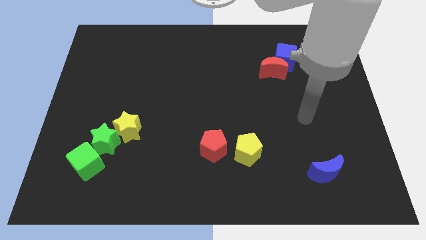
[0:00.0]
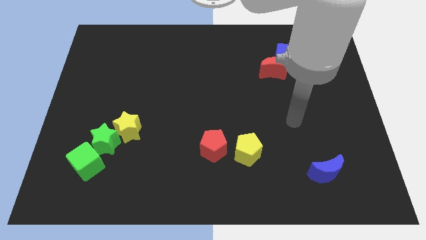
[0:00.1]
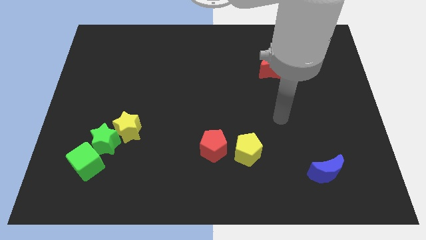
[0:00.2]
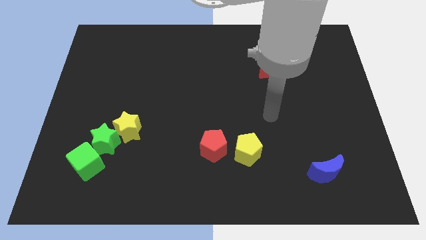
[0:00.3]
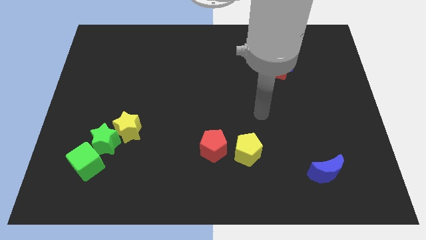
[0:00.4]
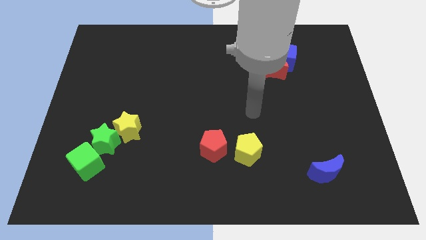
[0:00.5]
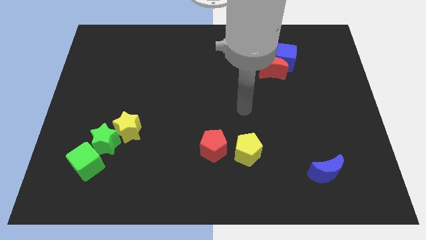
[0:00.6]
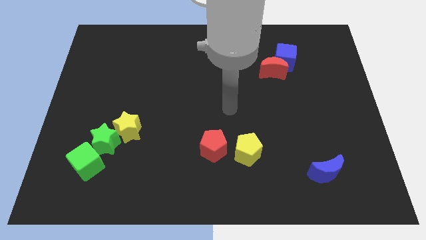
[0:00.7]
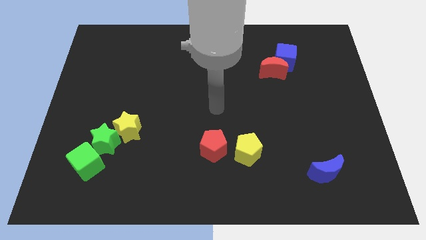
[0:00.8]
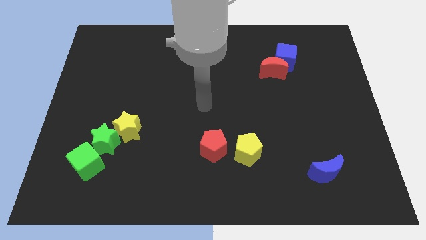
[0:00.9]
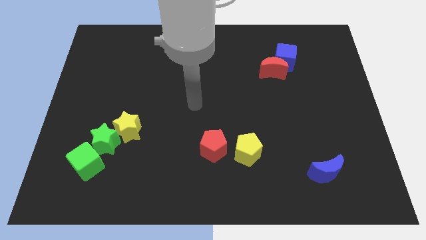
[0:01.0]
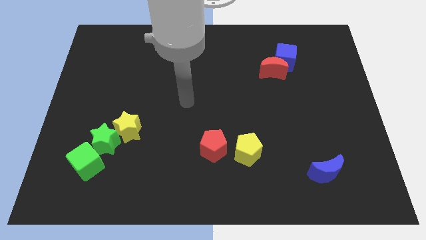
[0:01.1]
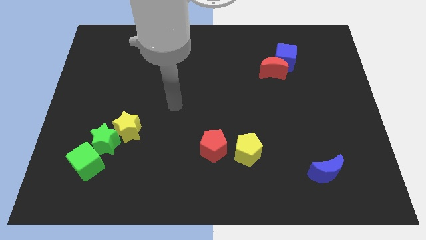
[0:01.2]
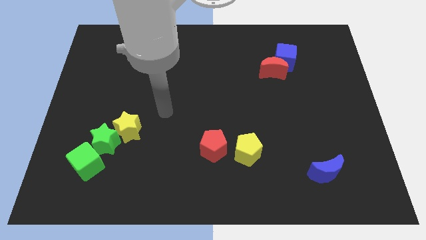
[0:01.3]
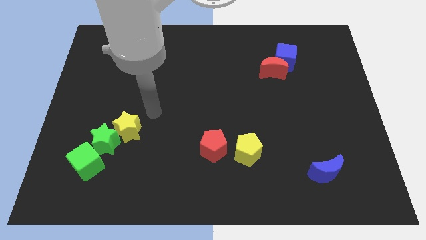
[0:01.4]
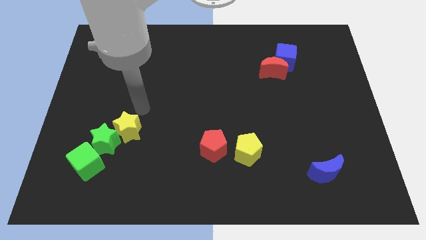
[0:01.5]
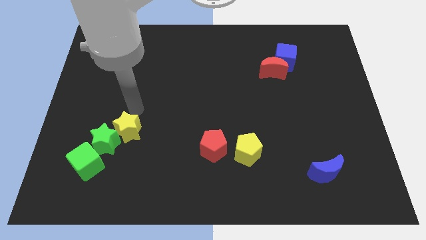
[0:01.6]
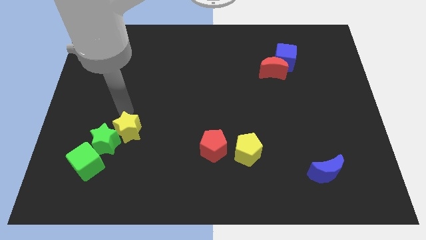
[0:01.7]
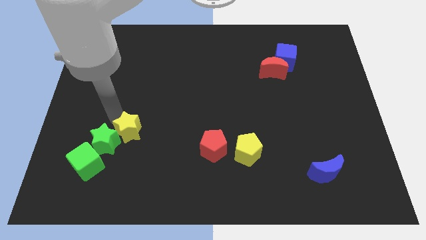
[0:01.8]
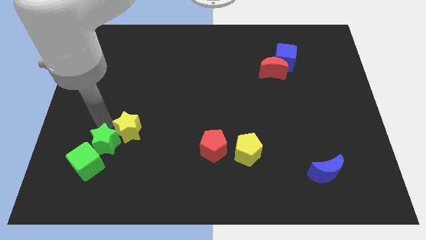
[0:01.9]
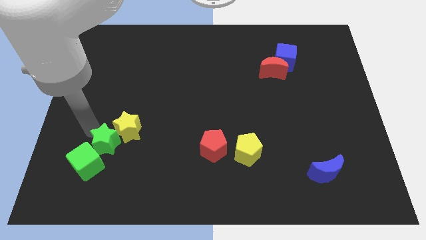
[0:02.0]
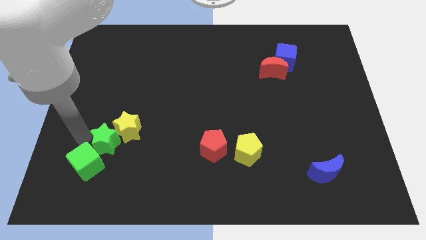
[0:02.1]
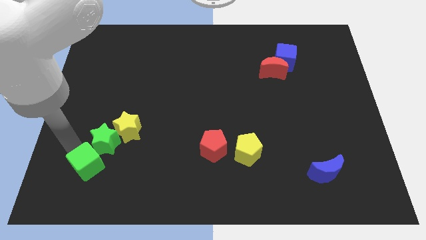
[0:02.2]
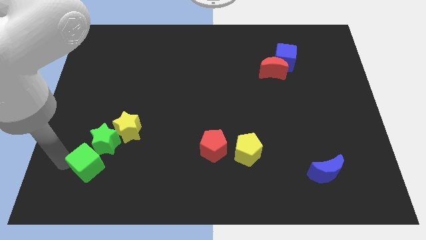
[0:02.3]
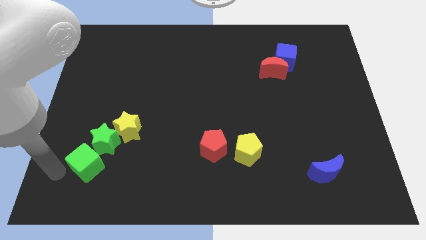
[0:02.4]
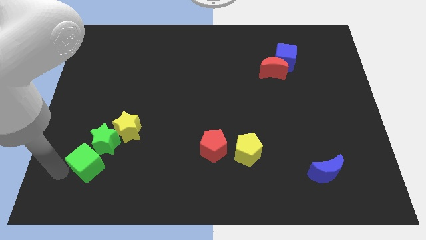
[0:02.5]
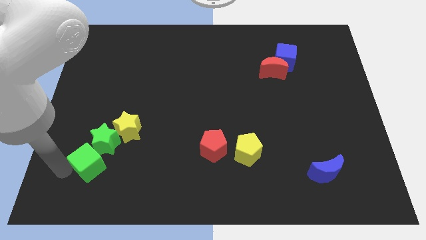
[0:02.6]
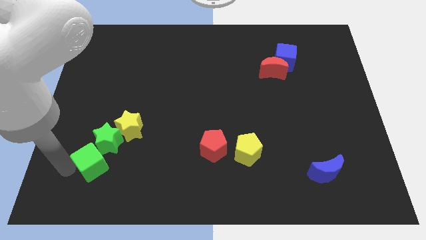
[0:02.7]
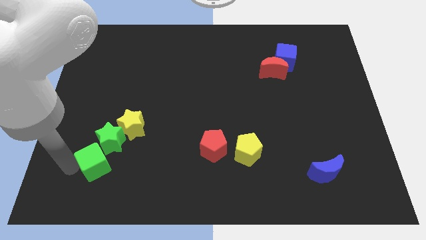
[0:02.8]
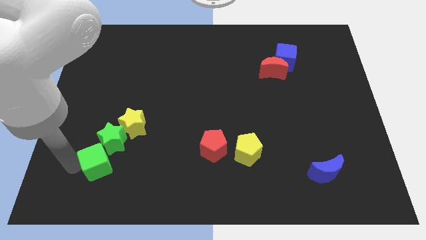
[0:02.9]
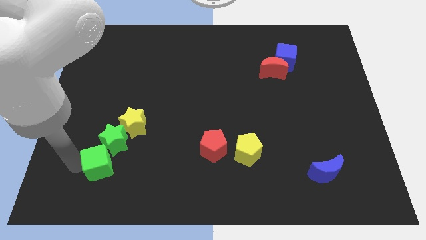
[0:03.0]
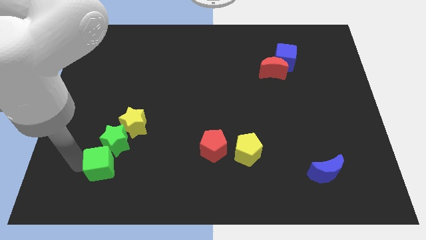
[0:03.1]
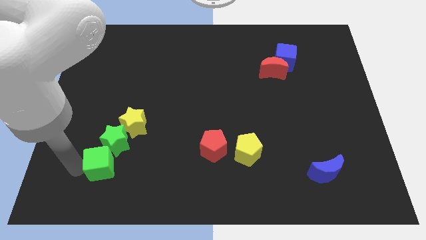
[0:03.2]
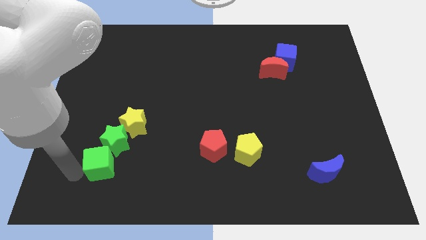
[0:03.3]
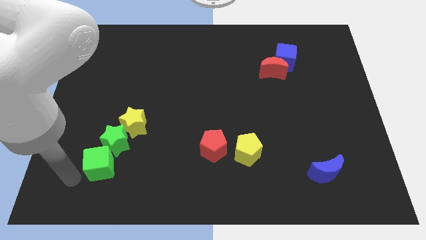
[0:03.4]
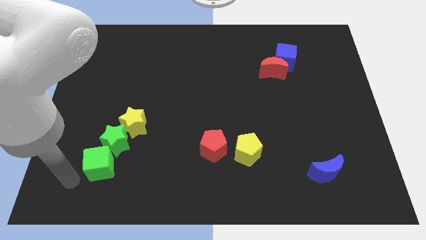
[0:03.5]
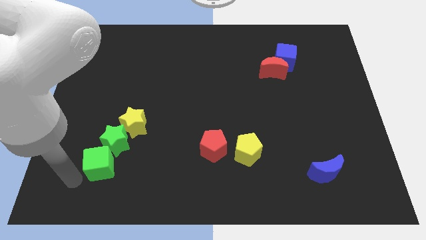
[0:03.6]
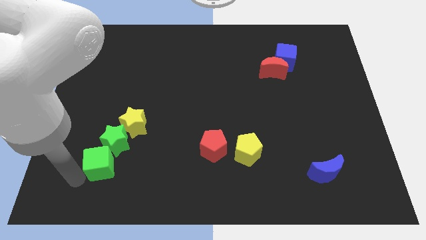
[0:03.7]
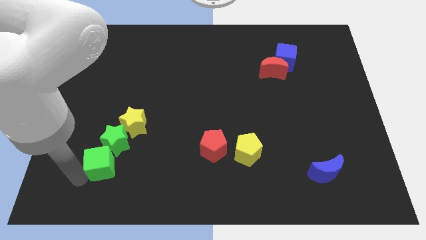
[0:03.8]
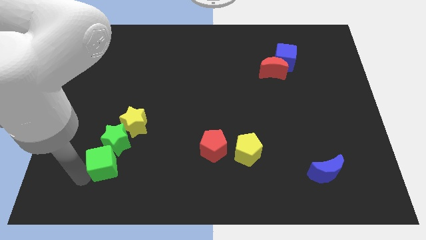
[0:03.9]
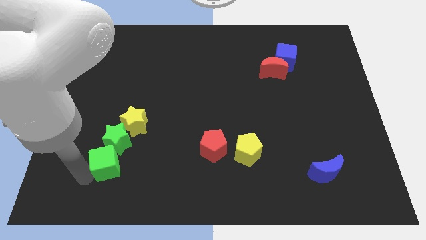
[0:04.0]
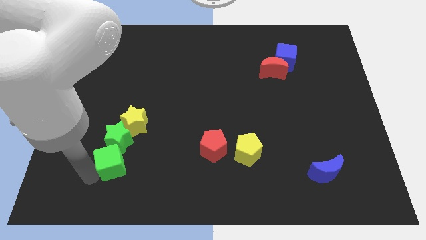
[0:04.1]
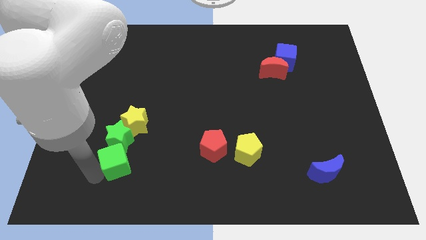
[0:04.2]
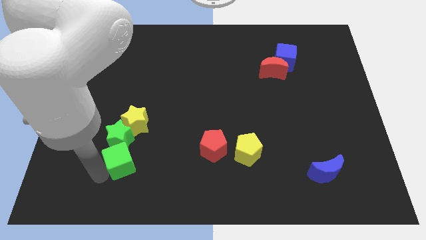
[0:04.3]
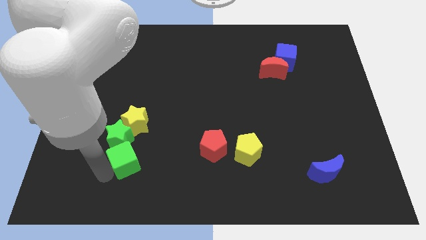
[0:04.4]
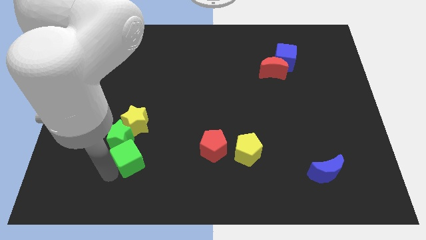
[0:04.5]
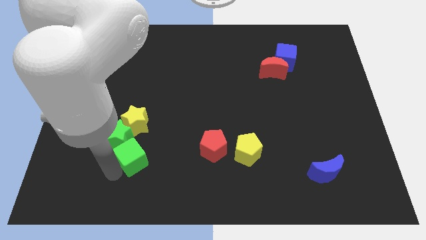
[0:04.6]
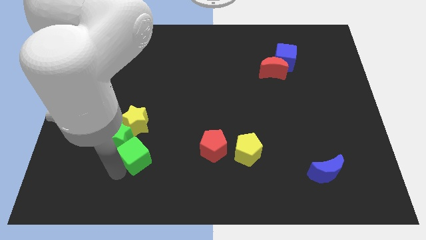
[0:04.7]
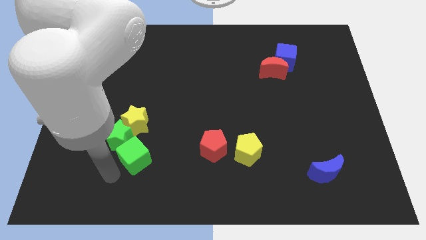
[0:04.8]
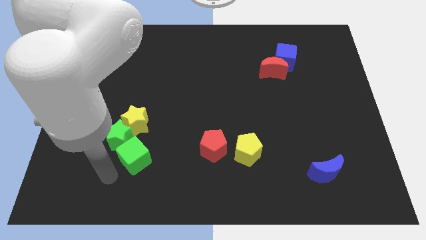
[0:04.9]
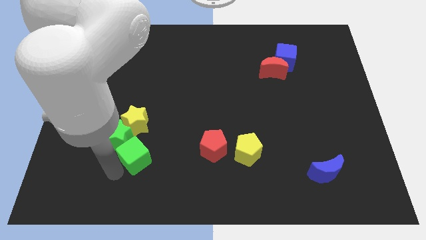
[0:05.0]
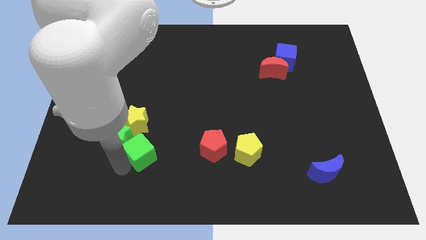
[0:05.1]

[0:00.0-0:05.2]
slide the green cube to the bottom right of the yellow star

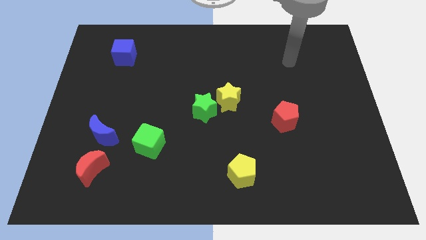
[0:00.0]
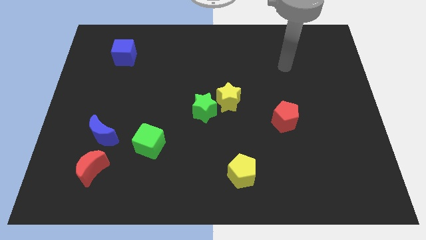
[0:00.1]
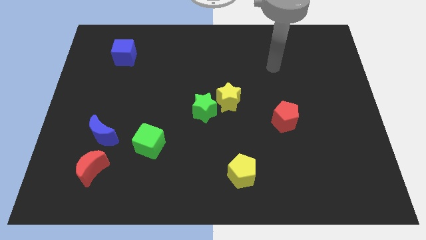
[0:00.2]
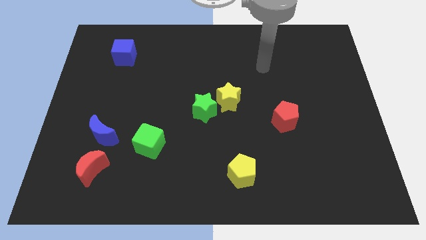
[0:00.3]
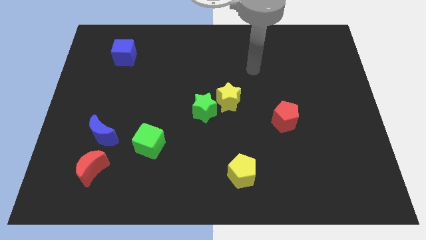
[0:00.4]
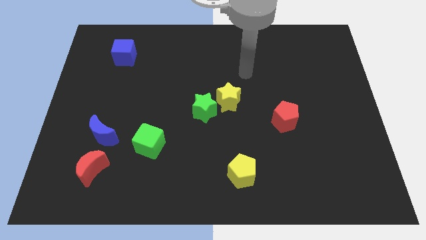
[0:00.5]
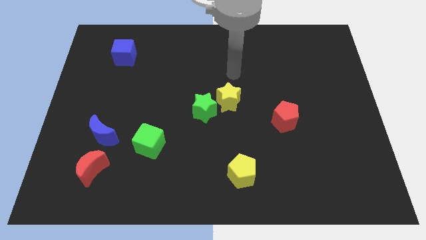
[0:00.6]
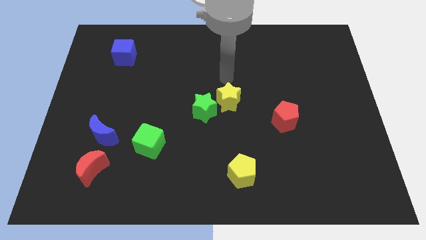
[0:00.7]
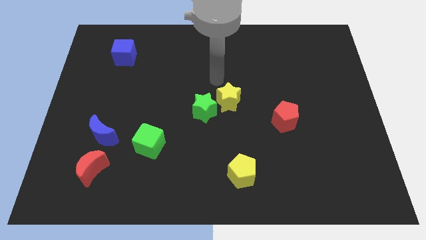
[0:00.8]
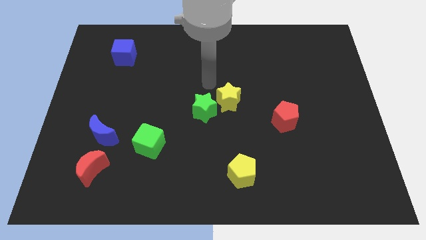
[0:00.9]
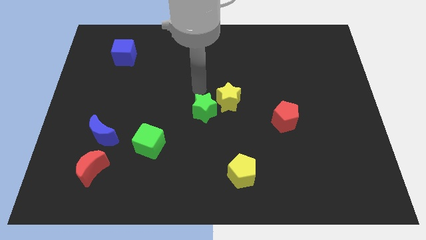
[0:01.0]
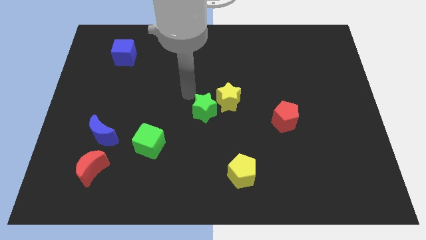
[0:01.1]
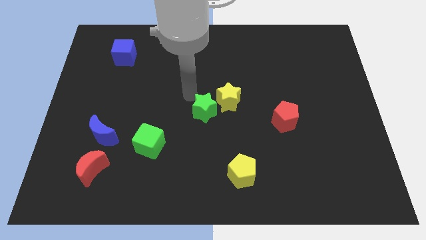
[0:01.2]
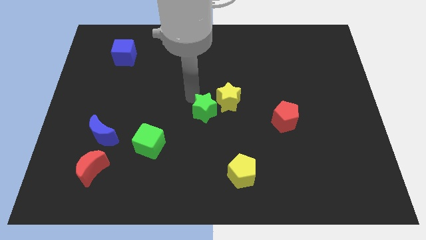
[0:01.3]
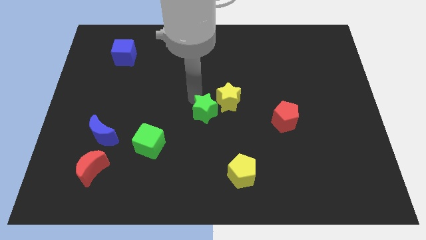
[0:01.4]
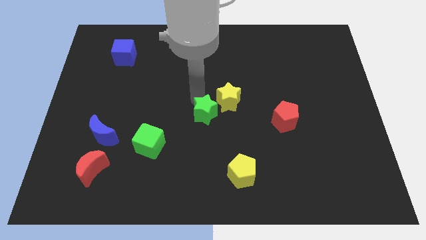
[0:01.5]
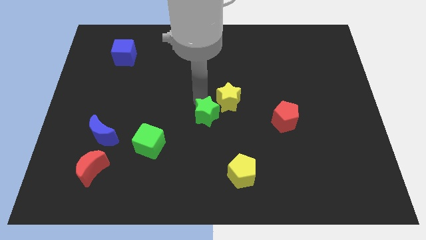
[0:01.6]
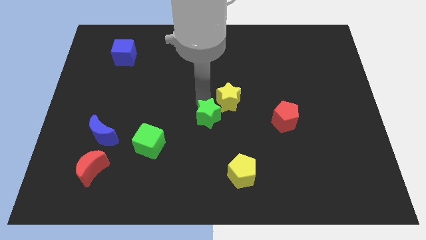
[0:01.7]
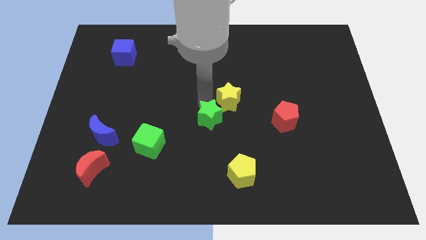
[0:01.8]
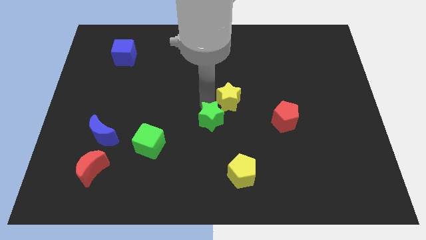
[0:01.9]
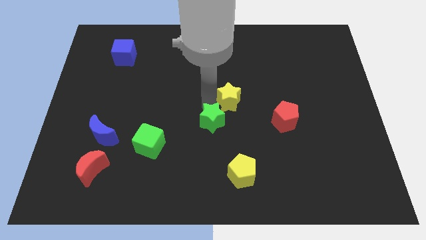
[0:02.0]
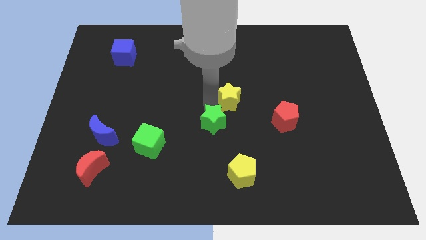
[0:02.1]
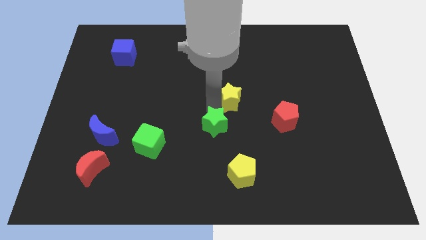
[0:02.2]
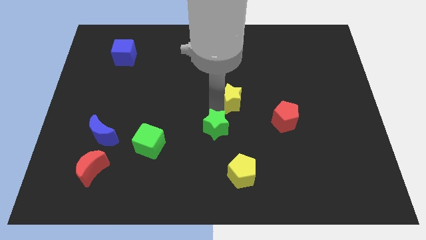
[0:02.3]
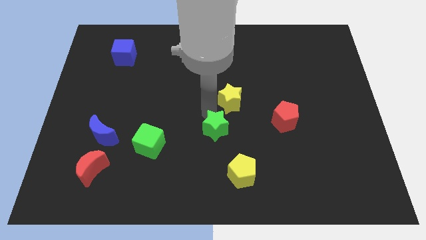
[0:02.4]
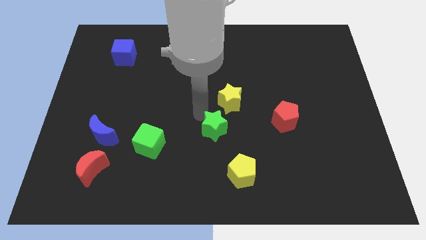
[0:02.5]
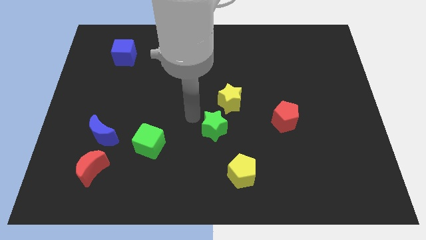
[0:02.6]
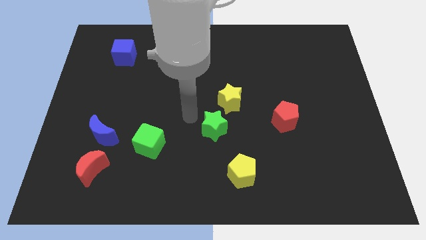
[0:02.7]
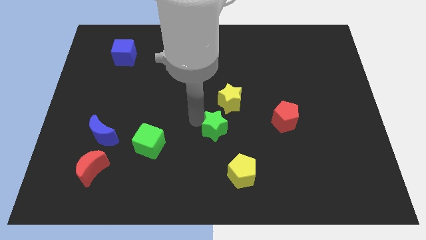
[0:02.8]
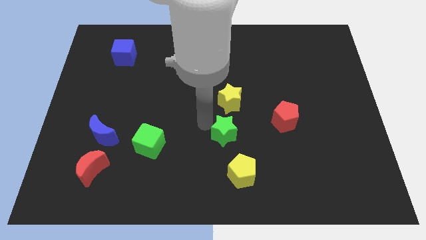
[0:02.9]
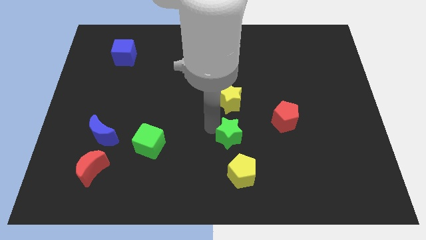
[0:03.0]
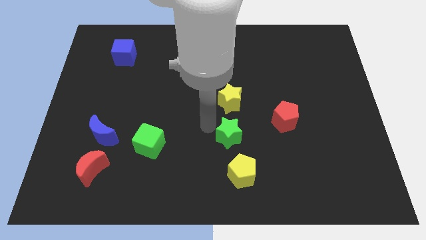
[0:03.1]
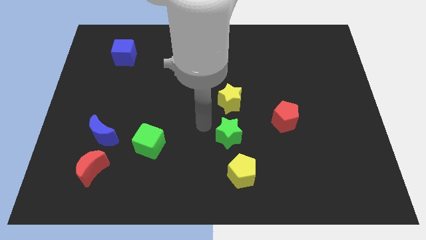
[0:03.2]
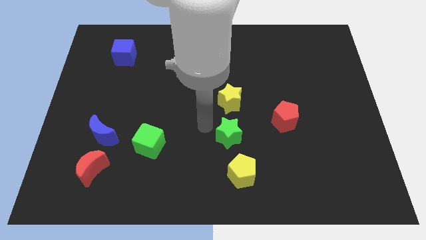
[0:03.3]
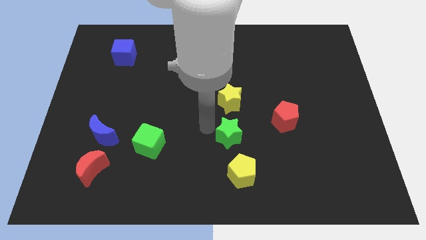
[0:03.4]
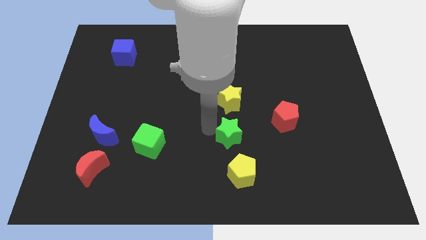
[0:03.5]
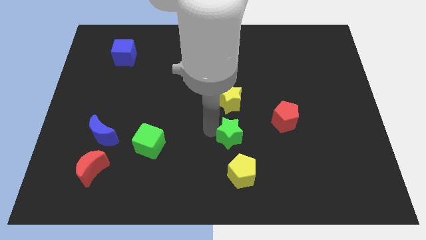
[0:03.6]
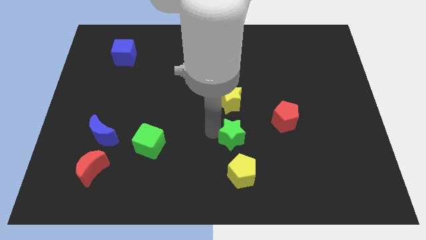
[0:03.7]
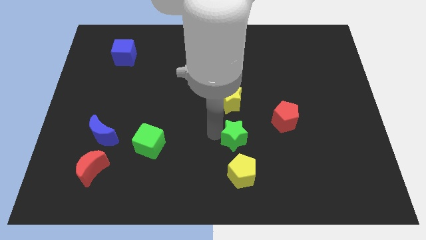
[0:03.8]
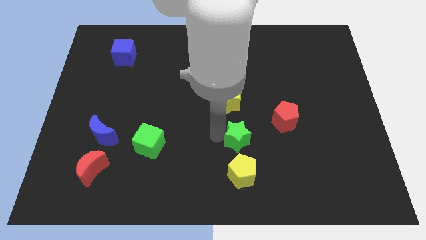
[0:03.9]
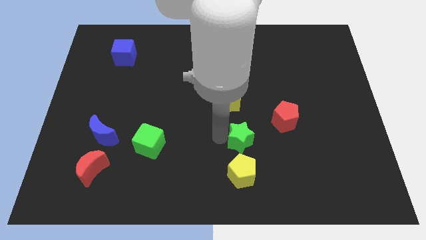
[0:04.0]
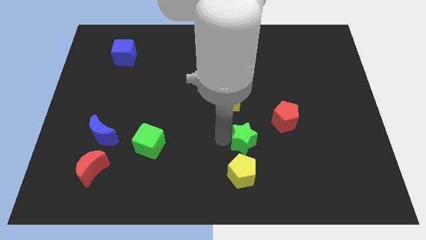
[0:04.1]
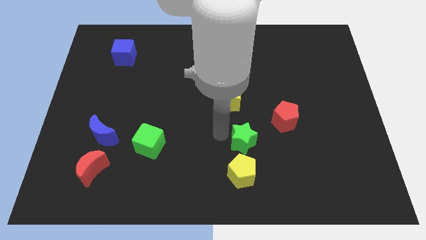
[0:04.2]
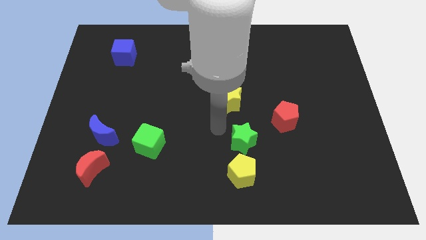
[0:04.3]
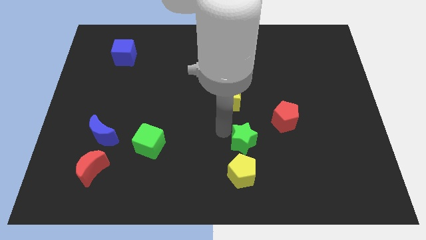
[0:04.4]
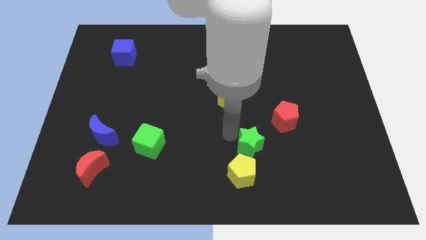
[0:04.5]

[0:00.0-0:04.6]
move the green star to the top right side of the yellow pentagon
